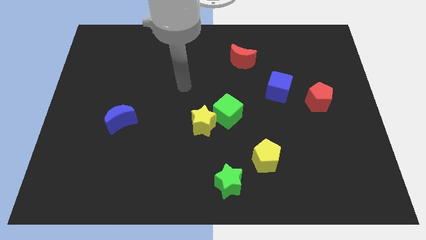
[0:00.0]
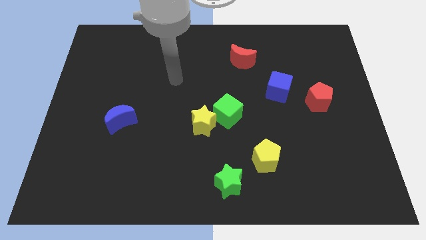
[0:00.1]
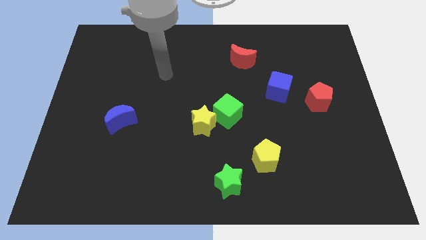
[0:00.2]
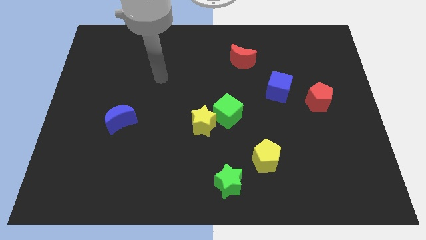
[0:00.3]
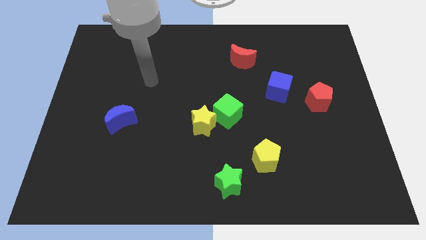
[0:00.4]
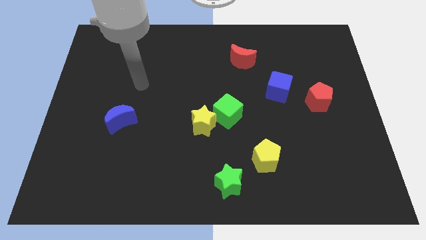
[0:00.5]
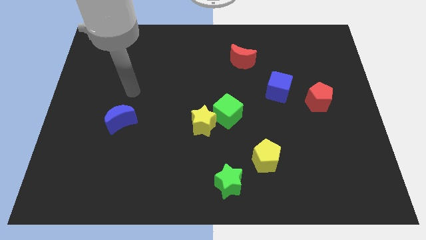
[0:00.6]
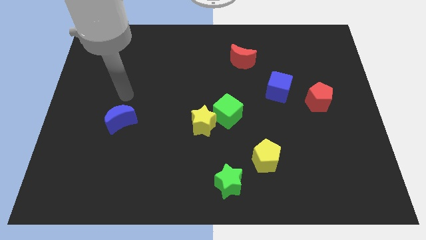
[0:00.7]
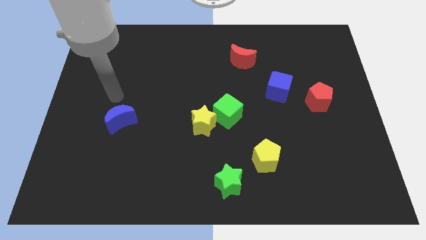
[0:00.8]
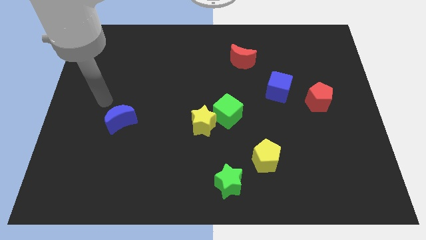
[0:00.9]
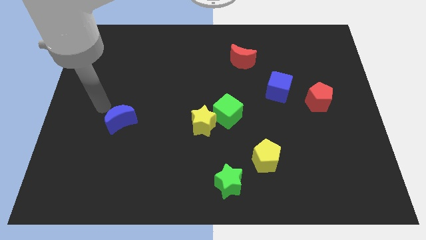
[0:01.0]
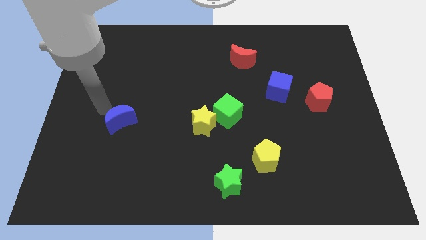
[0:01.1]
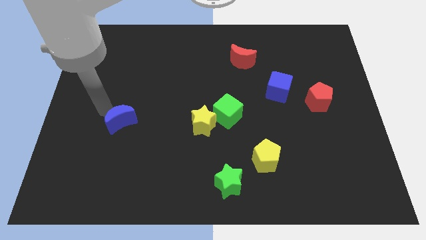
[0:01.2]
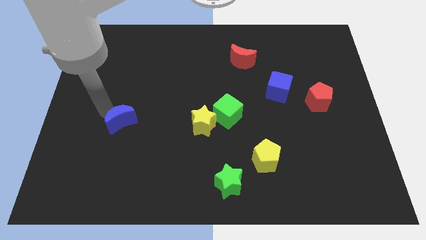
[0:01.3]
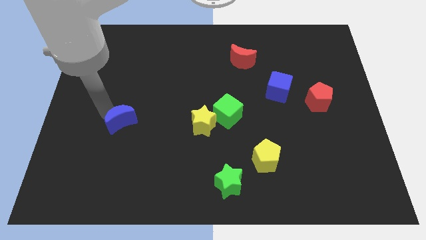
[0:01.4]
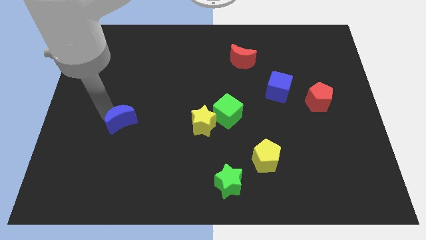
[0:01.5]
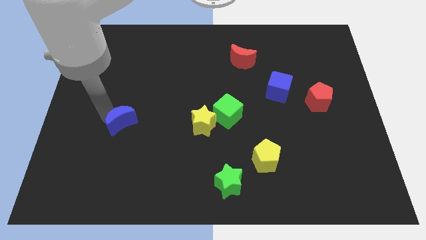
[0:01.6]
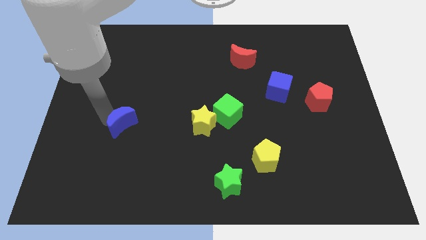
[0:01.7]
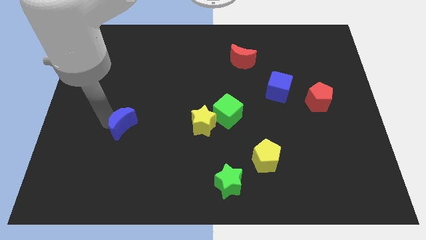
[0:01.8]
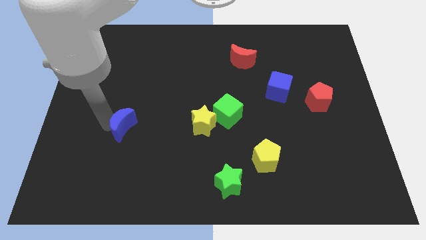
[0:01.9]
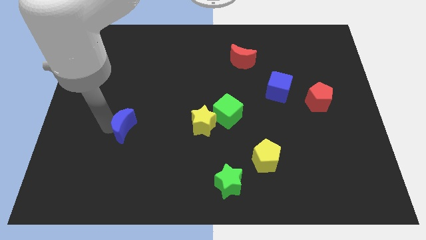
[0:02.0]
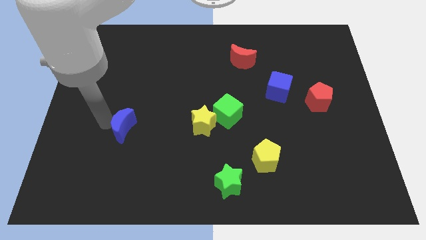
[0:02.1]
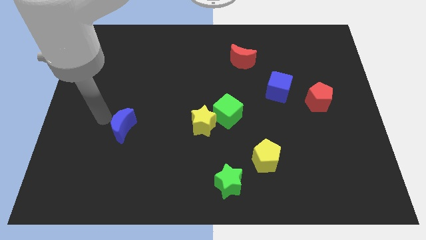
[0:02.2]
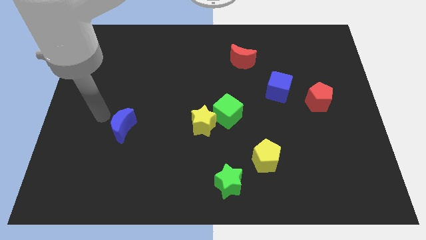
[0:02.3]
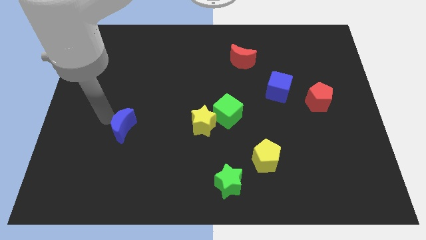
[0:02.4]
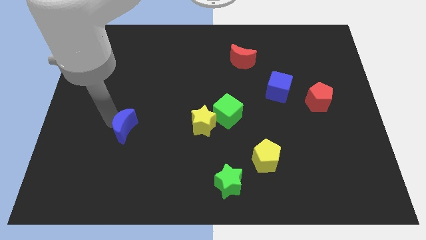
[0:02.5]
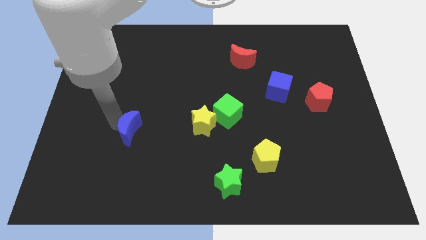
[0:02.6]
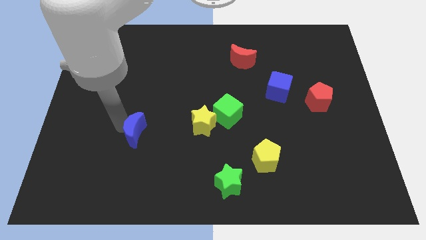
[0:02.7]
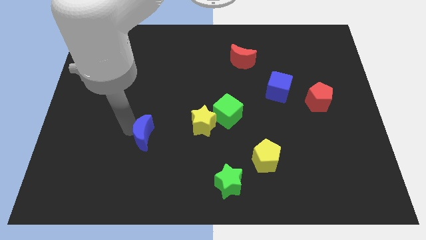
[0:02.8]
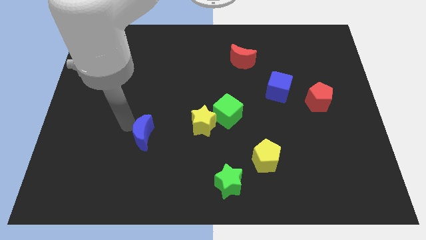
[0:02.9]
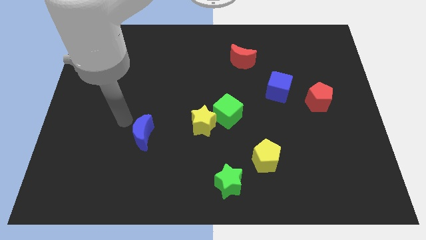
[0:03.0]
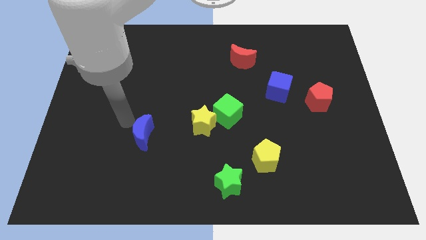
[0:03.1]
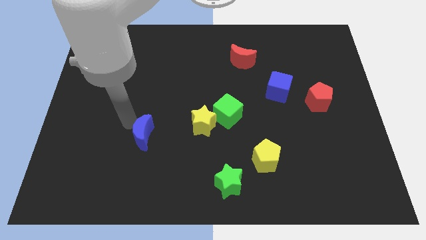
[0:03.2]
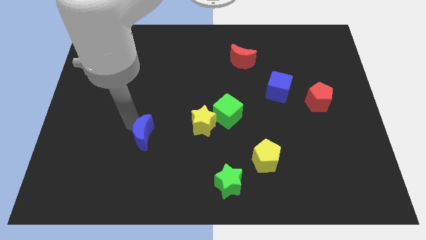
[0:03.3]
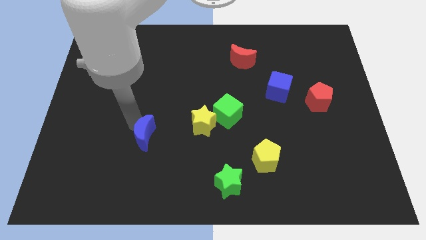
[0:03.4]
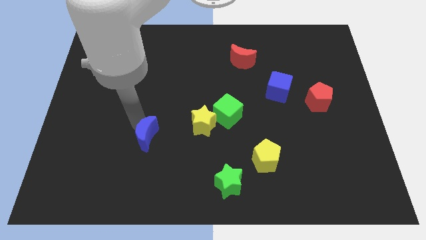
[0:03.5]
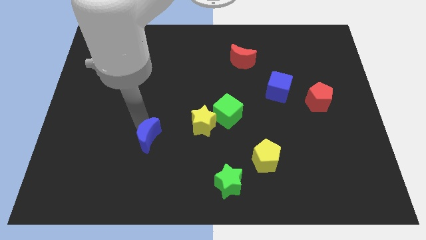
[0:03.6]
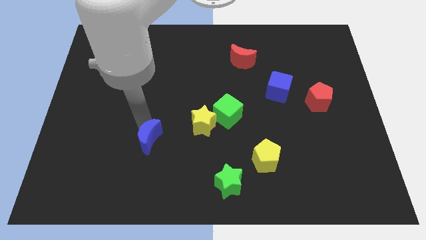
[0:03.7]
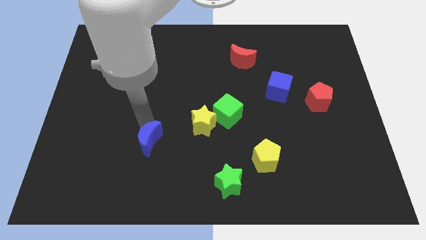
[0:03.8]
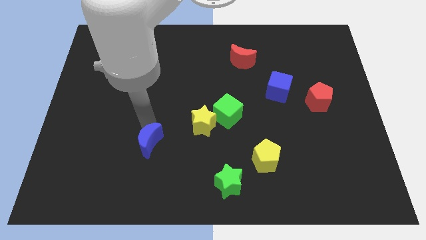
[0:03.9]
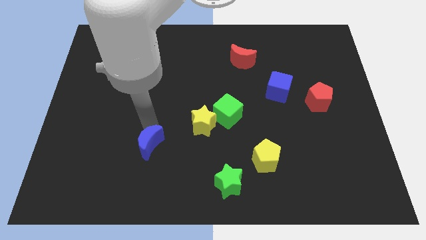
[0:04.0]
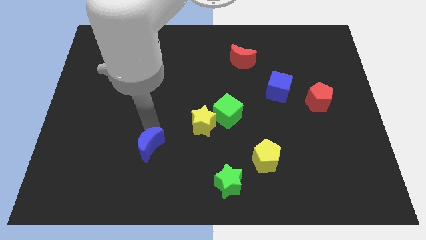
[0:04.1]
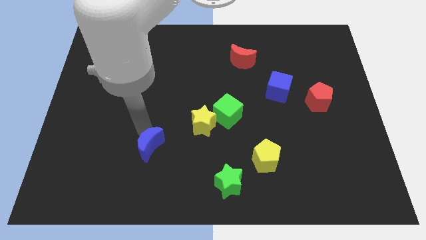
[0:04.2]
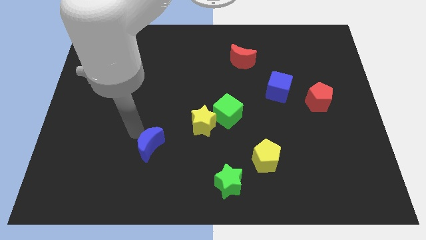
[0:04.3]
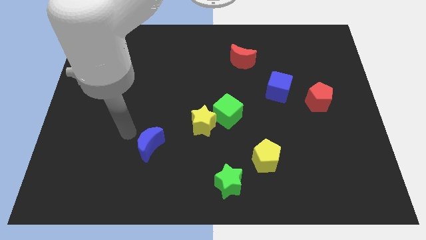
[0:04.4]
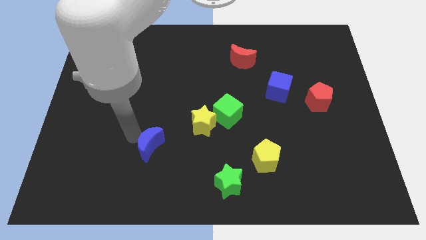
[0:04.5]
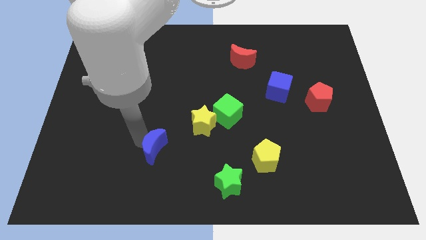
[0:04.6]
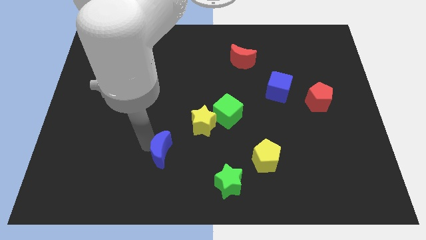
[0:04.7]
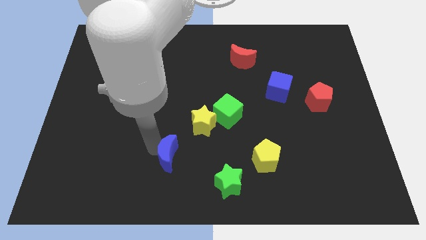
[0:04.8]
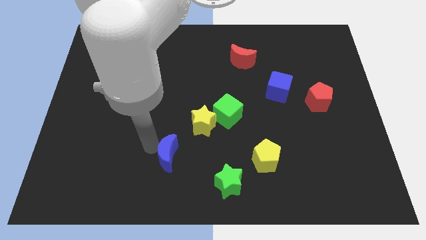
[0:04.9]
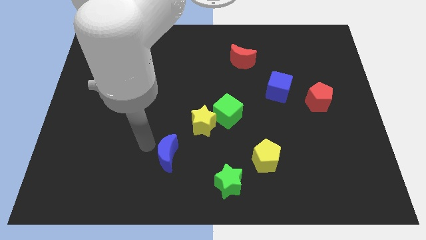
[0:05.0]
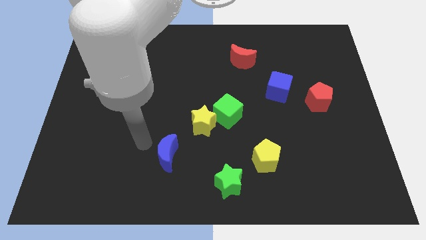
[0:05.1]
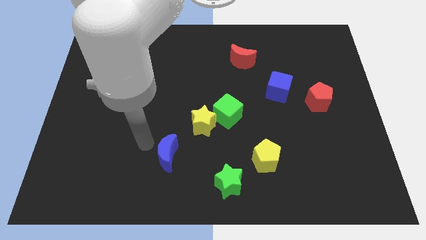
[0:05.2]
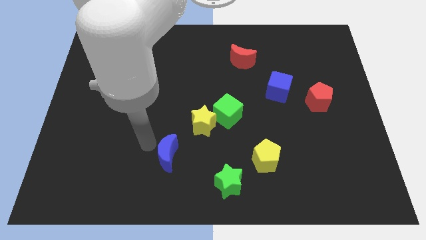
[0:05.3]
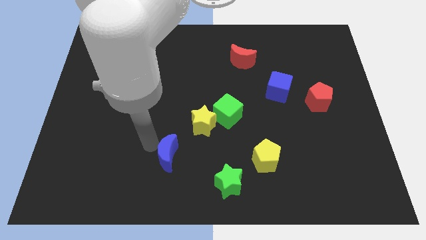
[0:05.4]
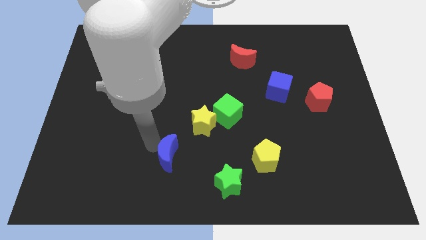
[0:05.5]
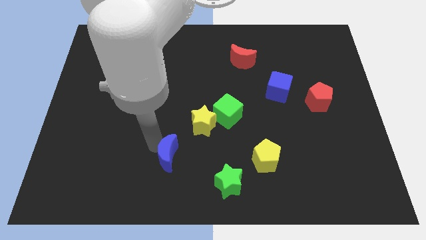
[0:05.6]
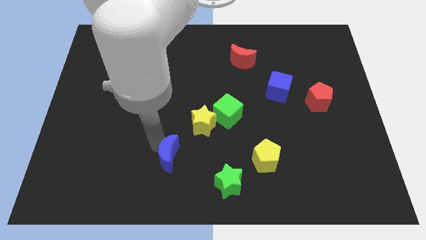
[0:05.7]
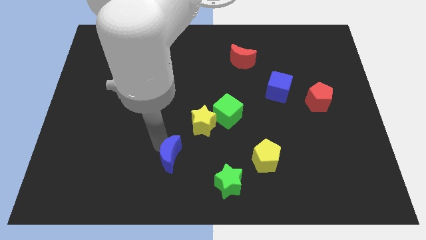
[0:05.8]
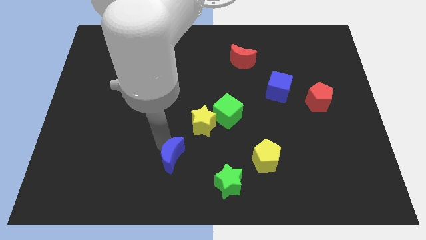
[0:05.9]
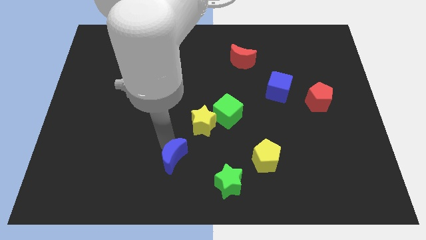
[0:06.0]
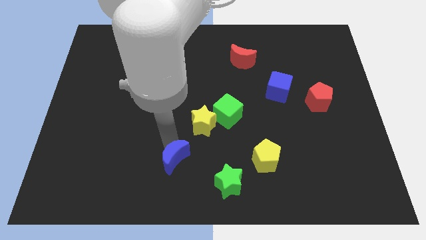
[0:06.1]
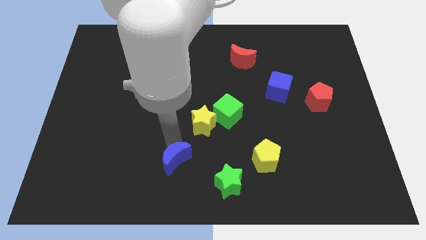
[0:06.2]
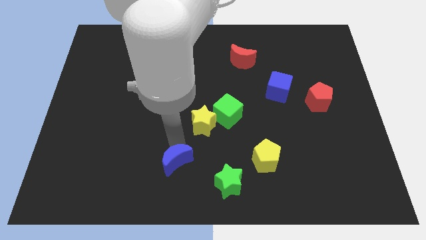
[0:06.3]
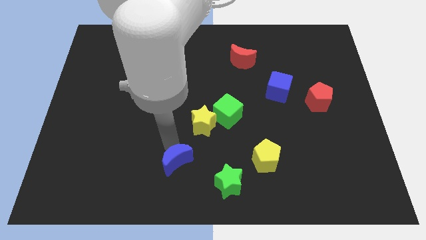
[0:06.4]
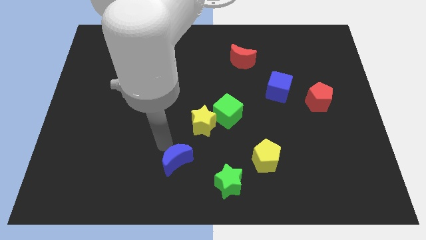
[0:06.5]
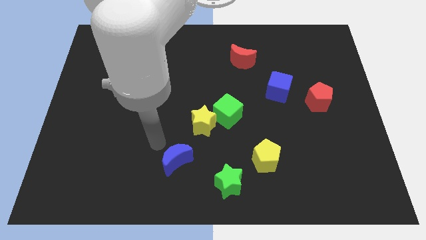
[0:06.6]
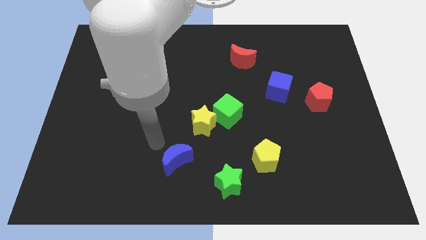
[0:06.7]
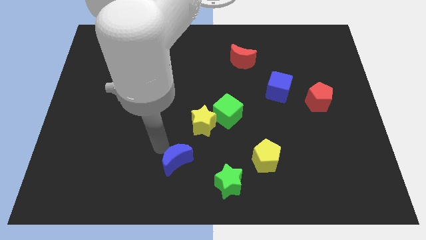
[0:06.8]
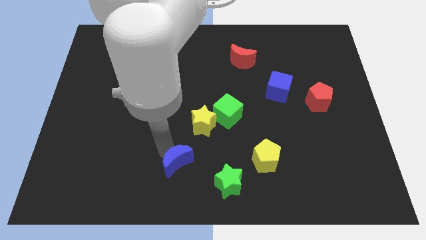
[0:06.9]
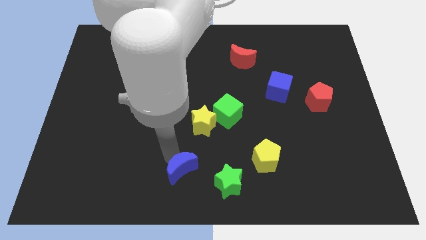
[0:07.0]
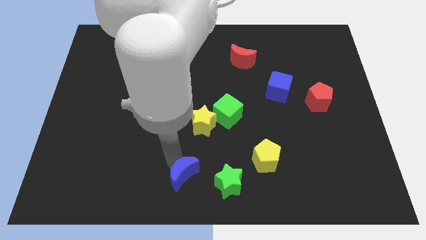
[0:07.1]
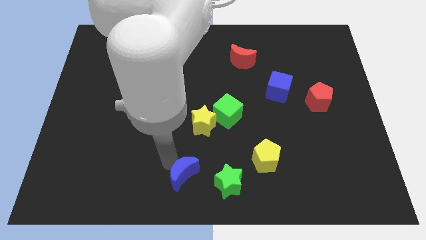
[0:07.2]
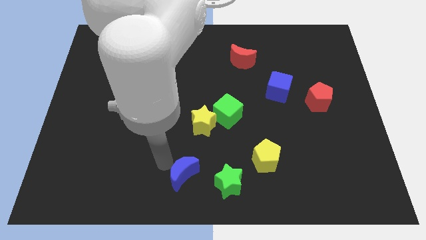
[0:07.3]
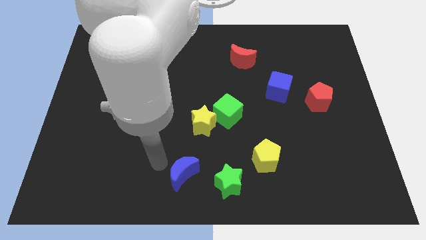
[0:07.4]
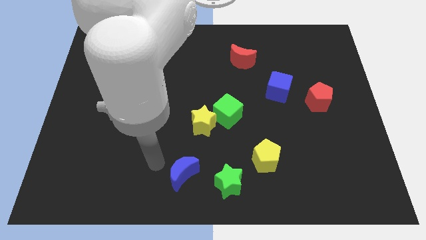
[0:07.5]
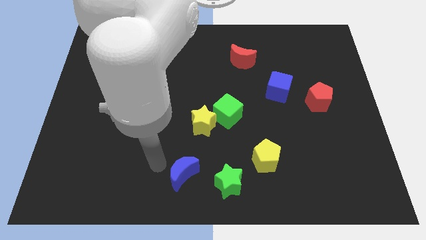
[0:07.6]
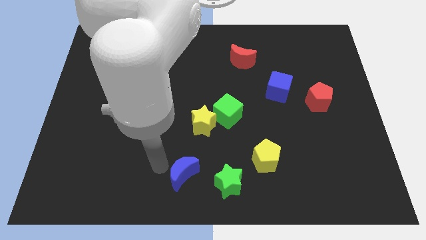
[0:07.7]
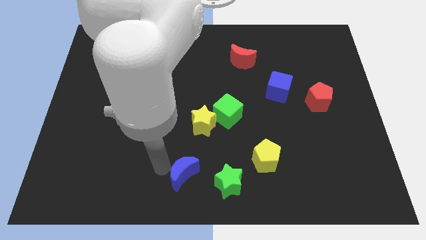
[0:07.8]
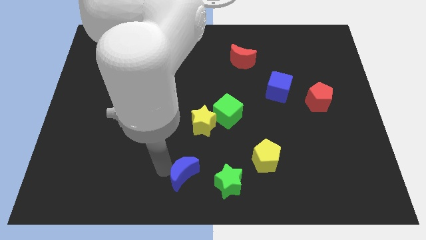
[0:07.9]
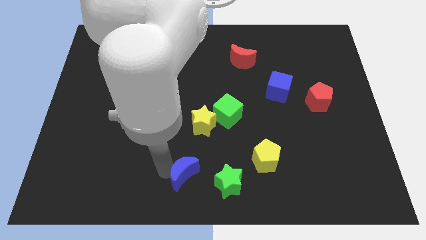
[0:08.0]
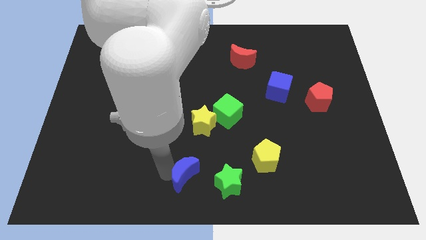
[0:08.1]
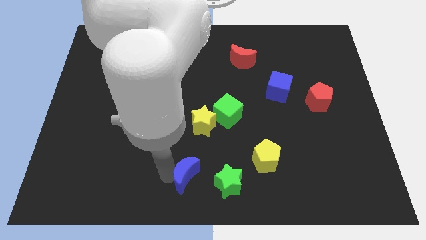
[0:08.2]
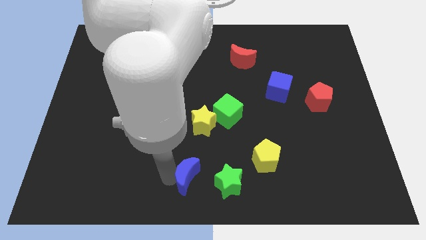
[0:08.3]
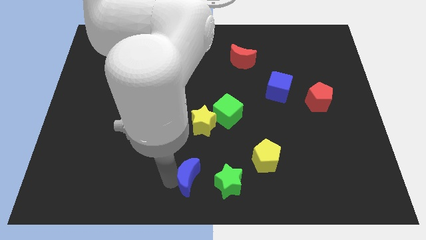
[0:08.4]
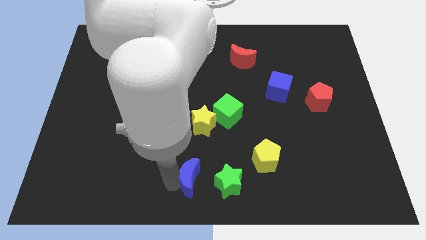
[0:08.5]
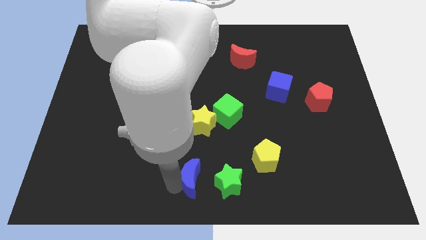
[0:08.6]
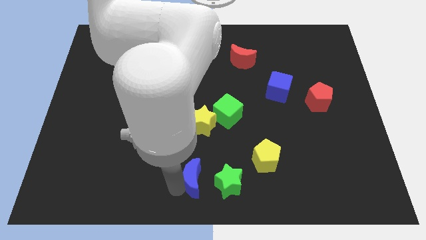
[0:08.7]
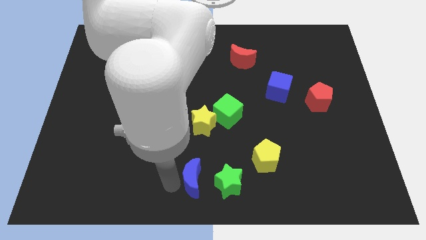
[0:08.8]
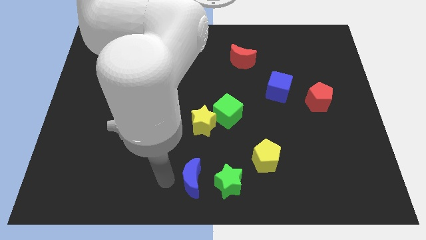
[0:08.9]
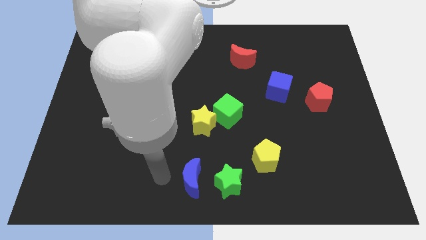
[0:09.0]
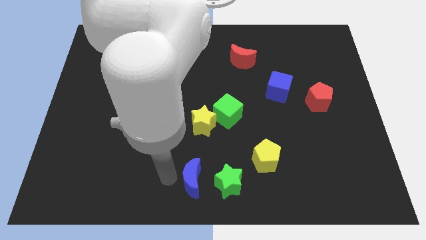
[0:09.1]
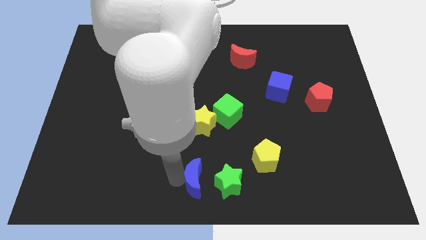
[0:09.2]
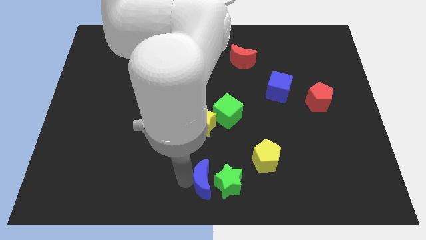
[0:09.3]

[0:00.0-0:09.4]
push the blue moon next to the green star
